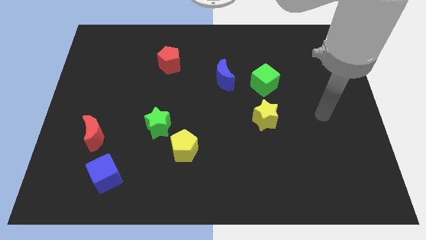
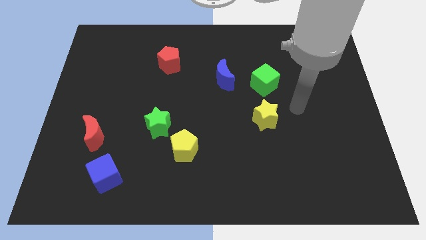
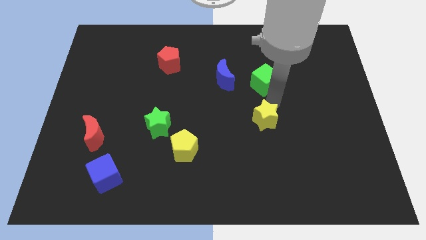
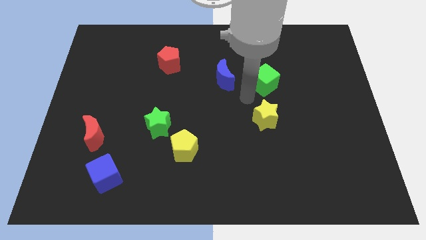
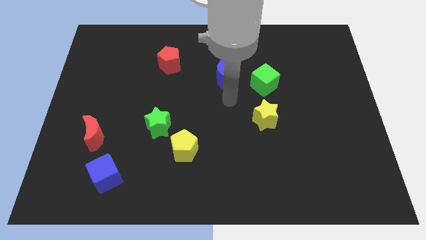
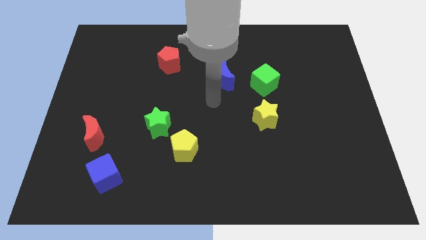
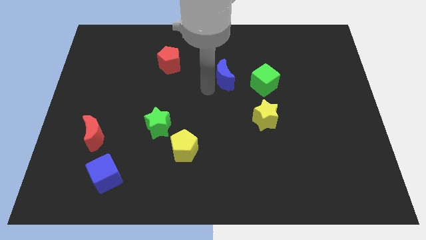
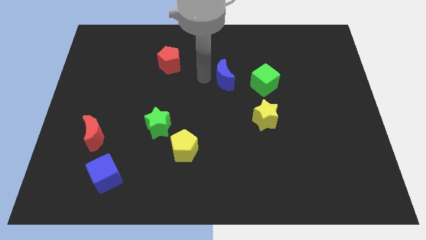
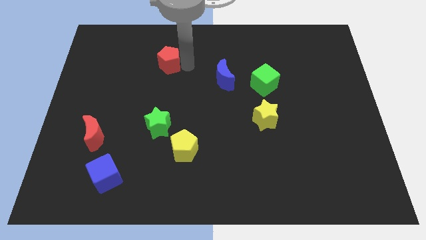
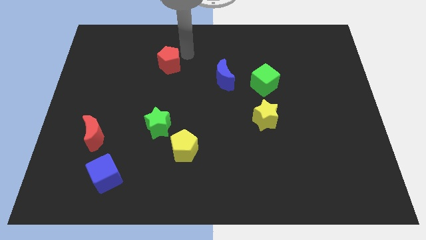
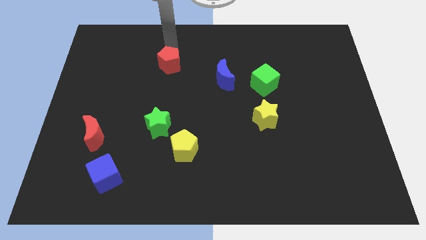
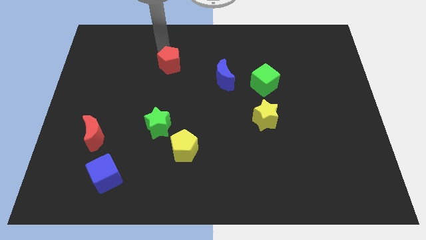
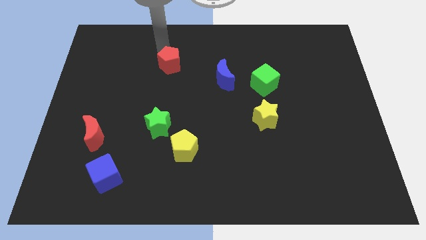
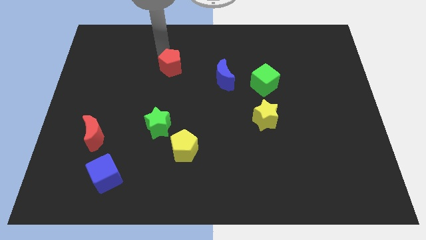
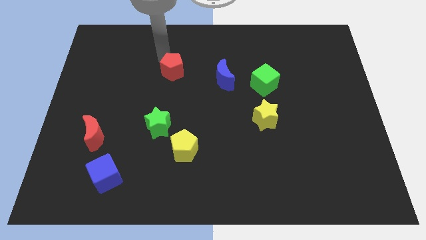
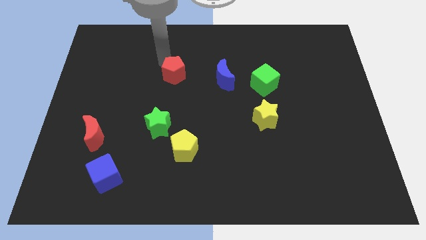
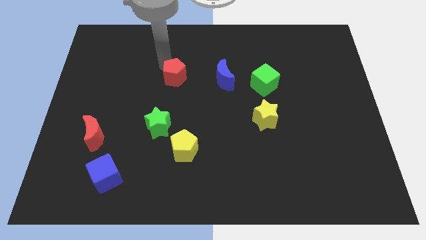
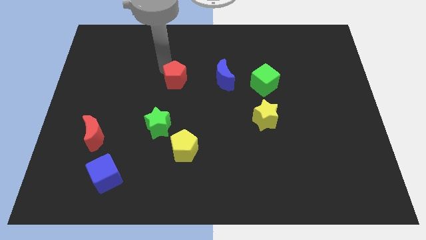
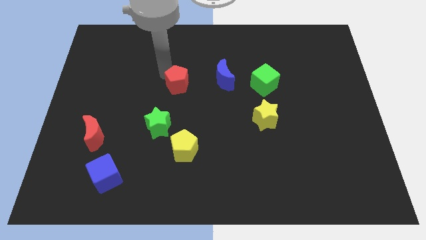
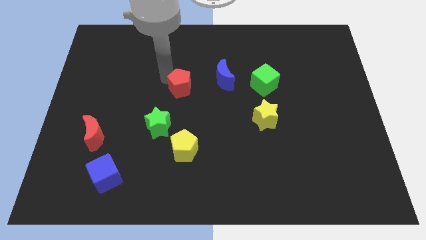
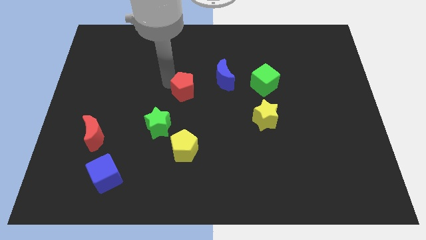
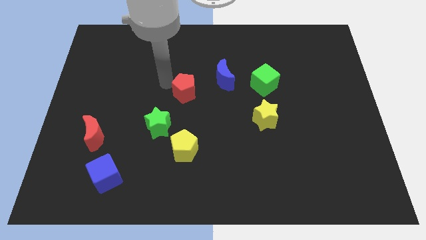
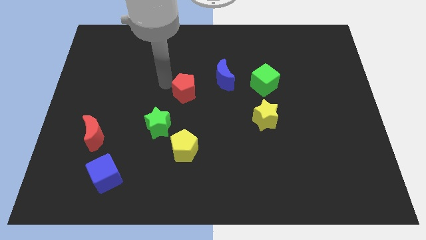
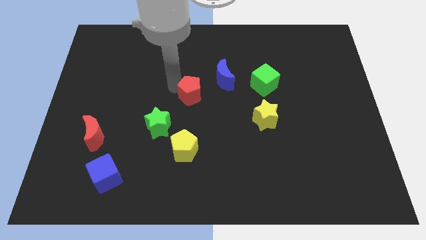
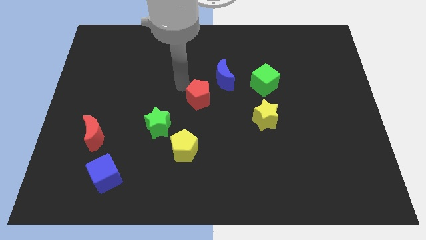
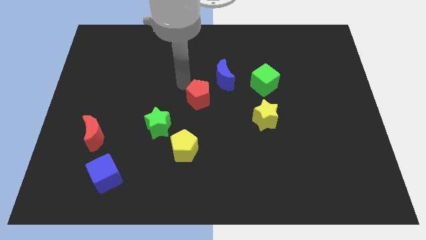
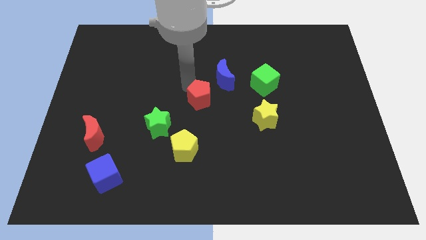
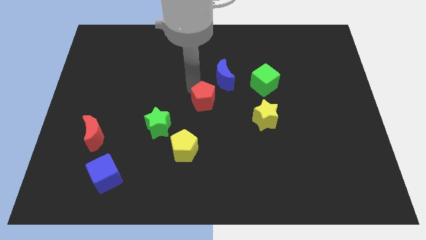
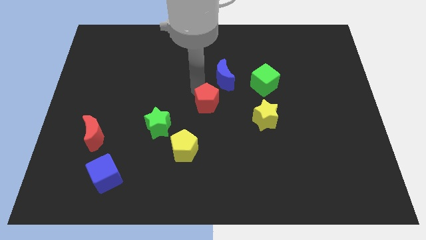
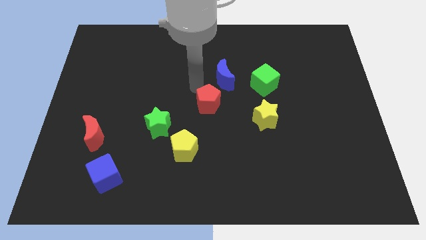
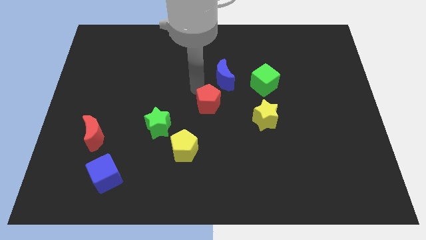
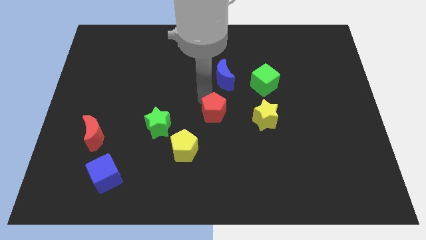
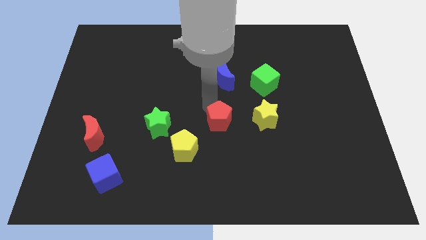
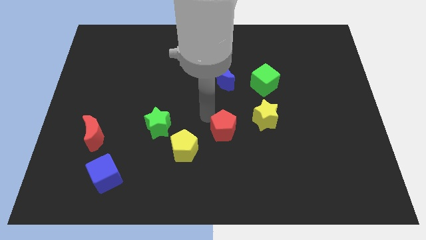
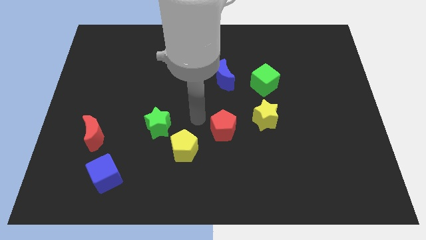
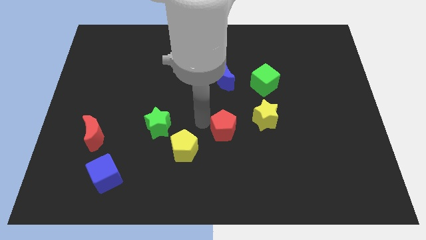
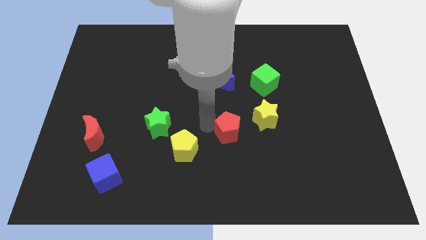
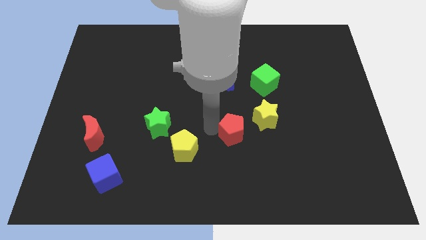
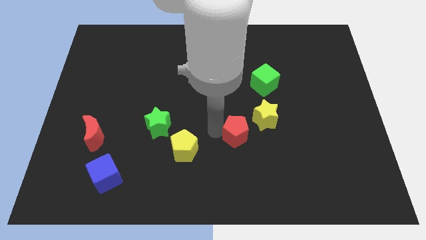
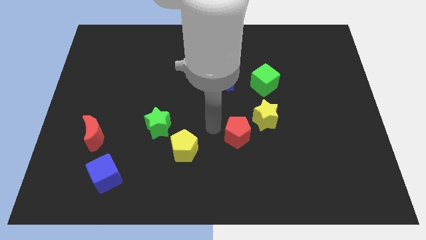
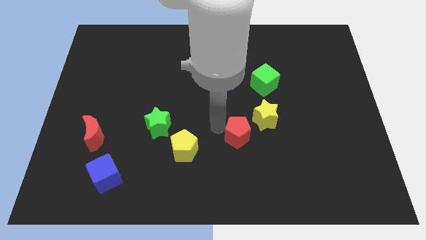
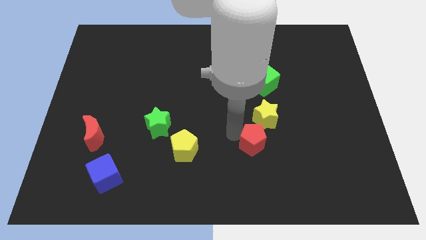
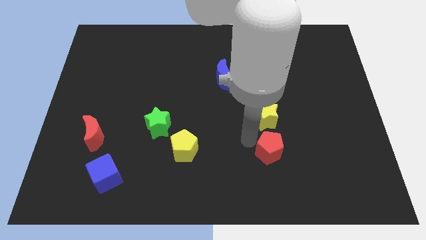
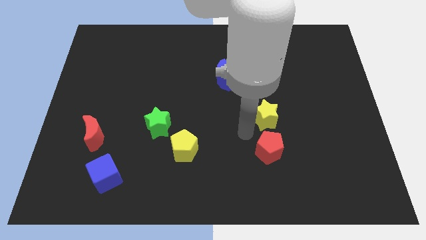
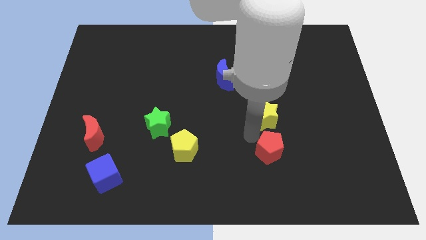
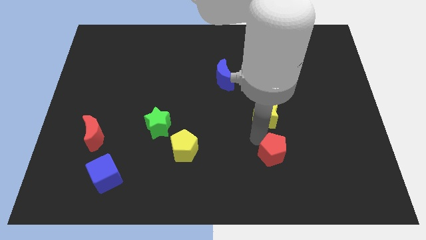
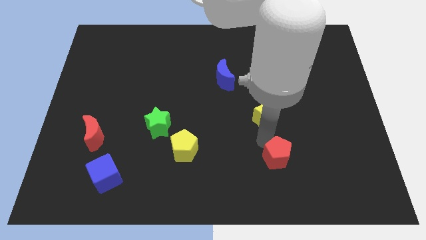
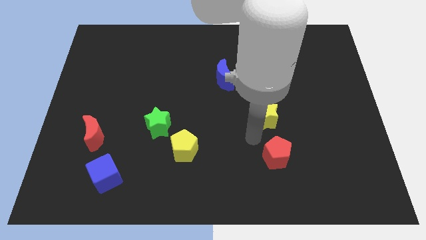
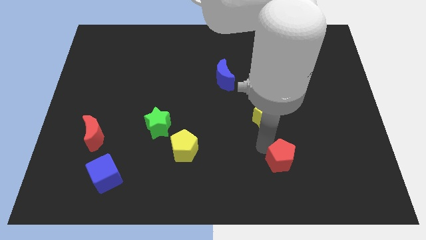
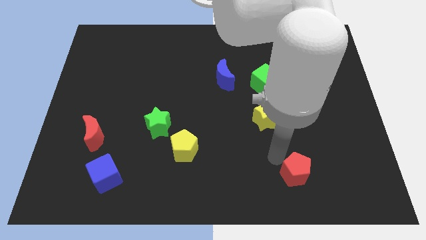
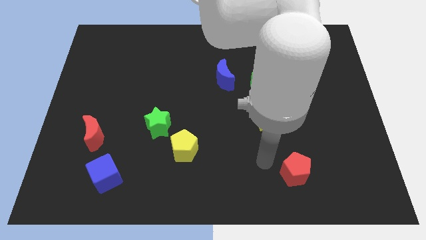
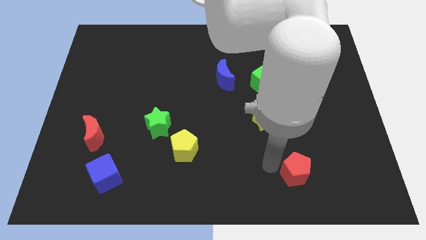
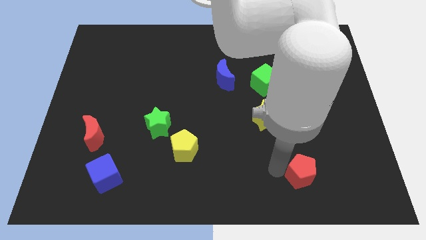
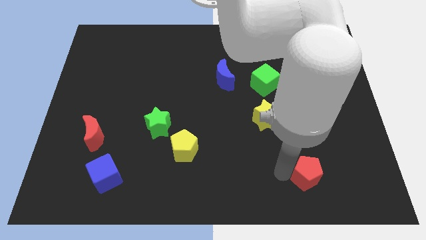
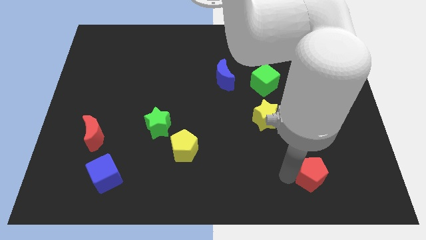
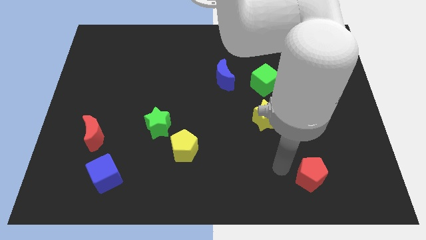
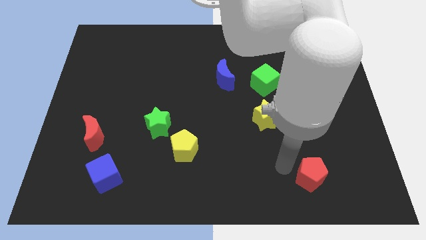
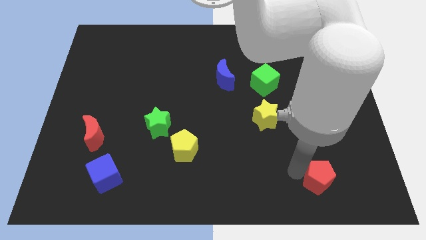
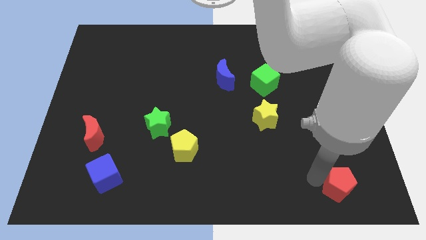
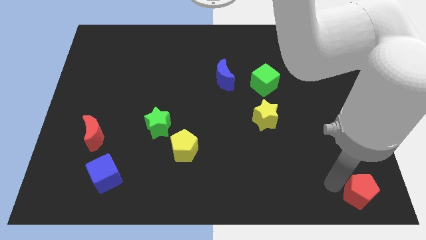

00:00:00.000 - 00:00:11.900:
push the red pentagon to the bottom right corner
